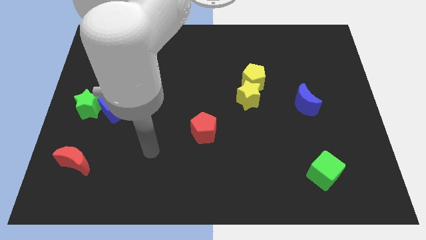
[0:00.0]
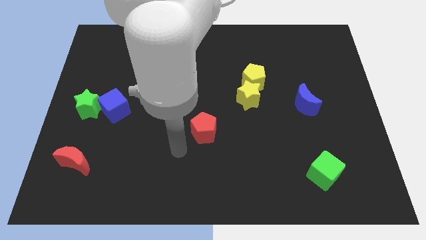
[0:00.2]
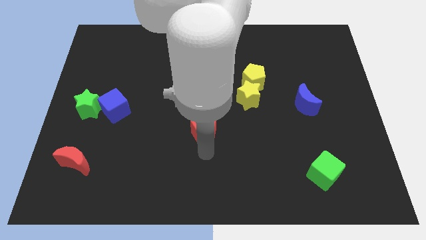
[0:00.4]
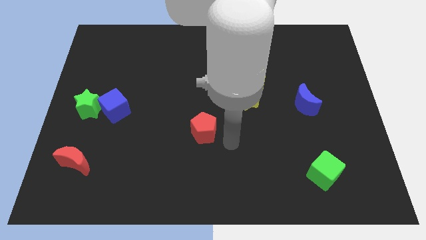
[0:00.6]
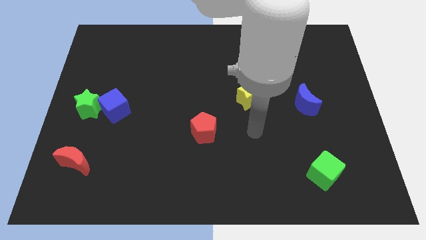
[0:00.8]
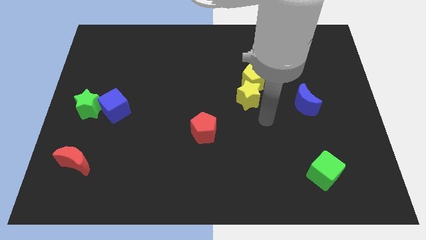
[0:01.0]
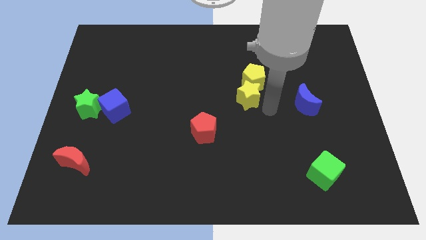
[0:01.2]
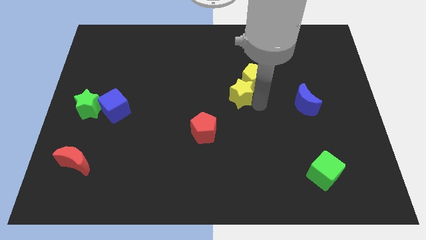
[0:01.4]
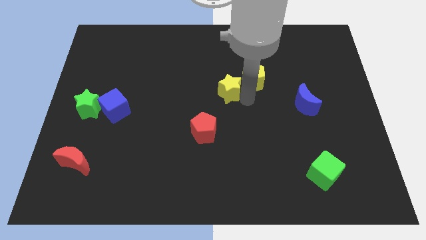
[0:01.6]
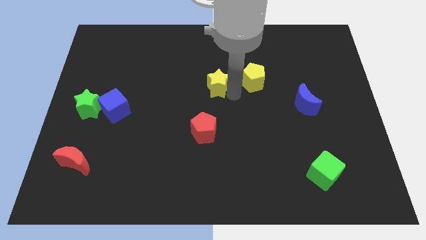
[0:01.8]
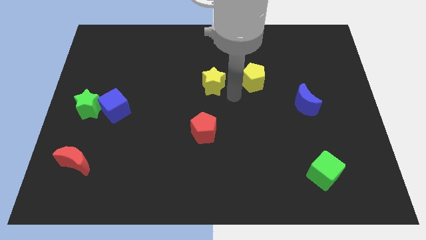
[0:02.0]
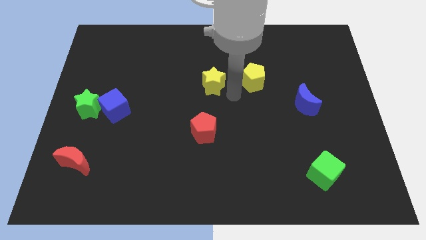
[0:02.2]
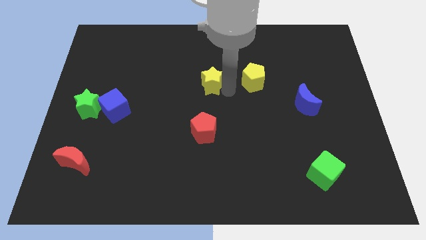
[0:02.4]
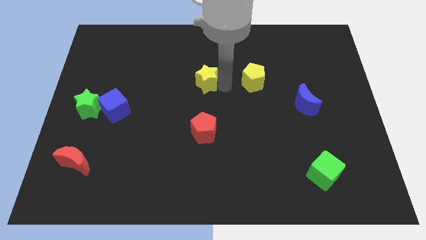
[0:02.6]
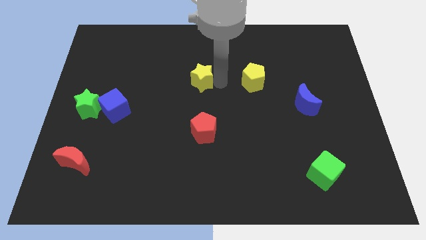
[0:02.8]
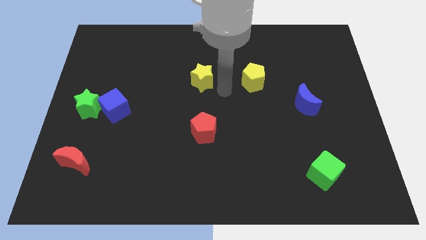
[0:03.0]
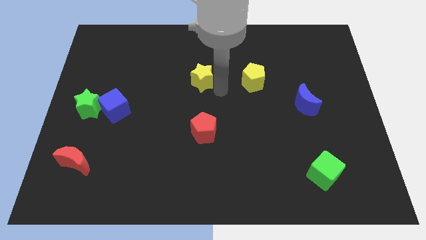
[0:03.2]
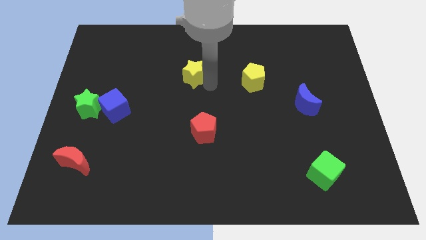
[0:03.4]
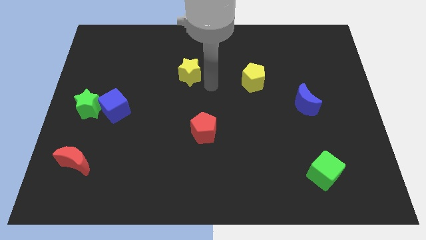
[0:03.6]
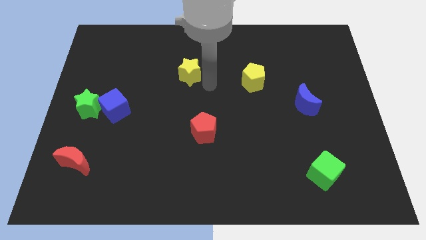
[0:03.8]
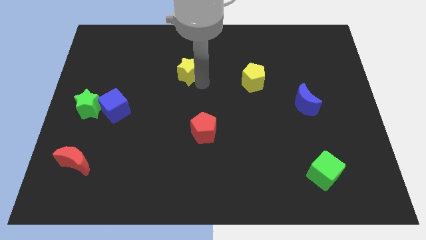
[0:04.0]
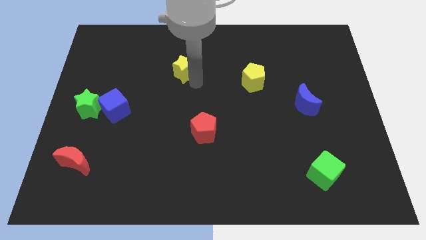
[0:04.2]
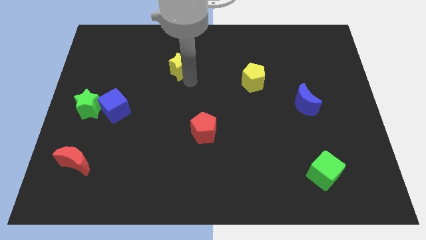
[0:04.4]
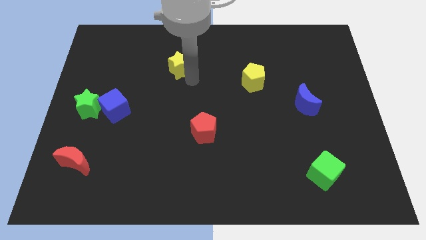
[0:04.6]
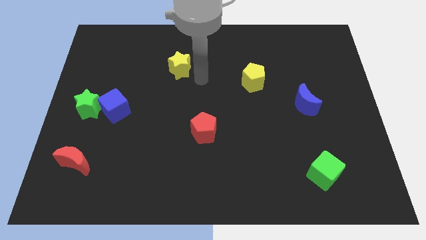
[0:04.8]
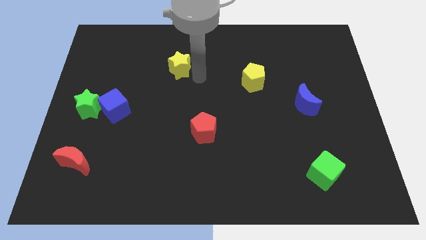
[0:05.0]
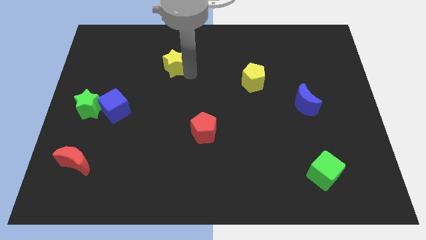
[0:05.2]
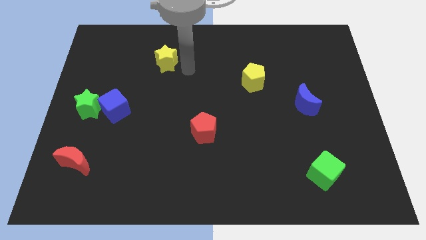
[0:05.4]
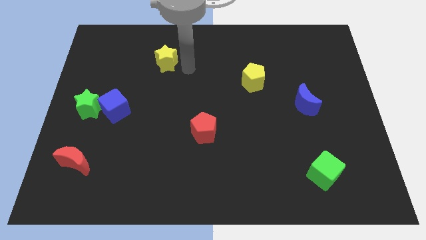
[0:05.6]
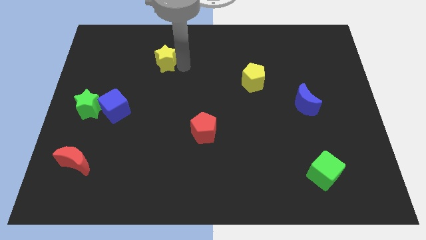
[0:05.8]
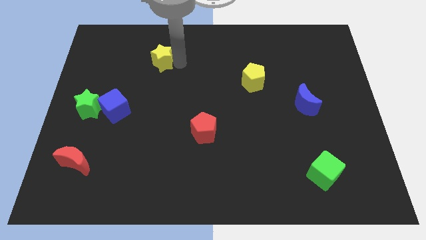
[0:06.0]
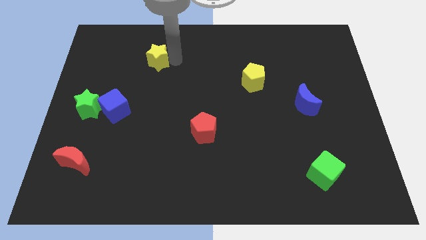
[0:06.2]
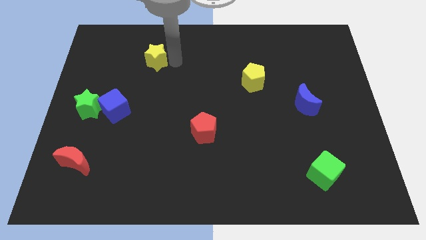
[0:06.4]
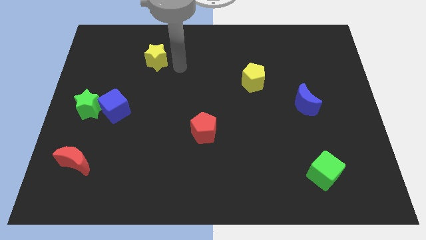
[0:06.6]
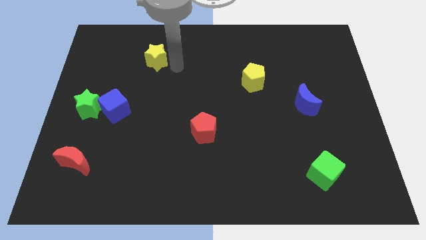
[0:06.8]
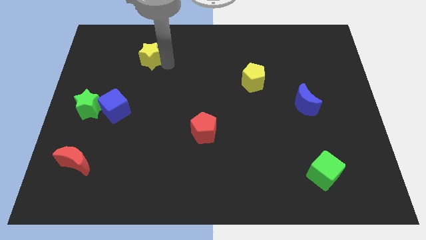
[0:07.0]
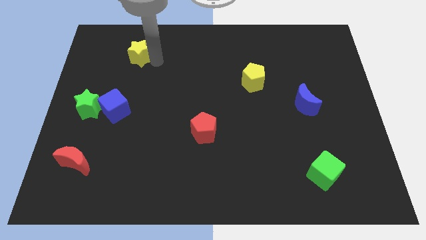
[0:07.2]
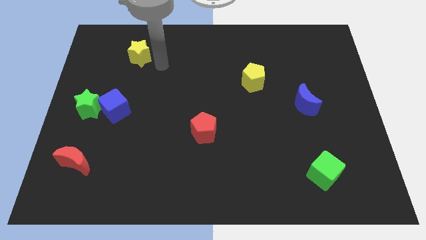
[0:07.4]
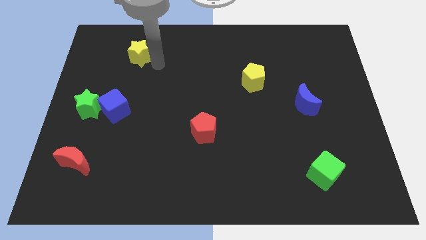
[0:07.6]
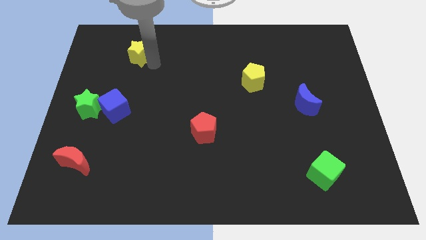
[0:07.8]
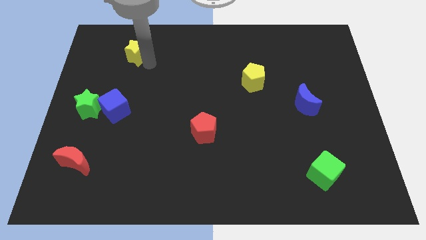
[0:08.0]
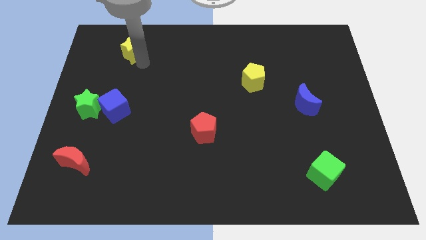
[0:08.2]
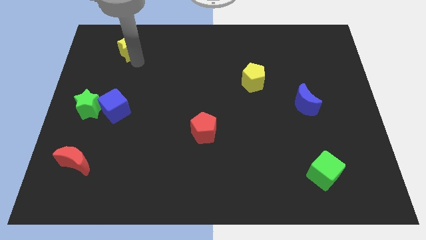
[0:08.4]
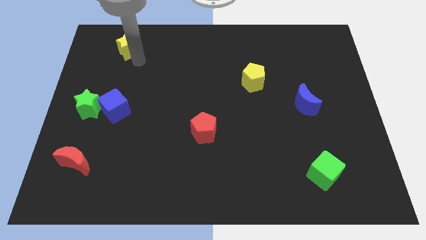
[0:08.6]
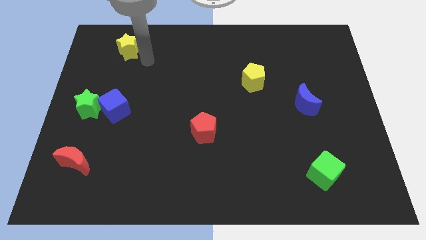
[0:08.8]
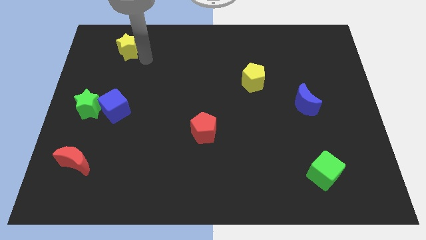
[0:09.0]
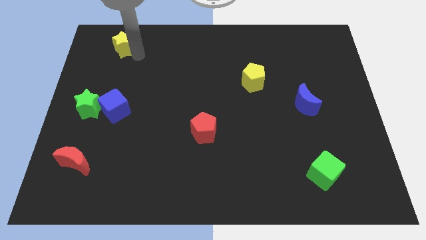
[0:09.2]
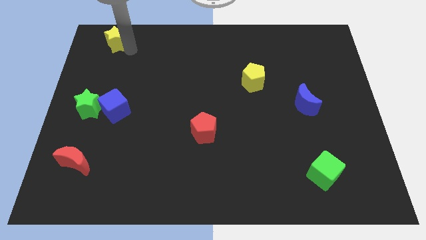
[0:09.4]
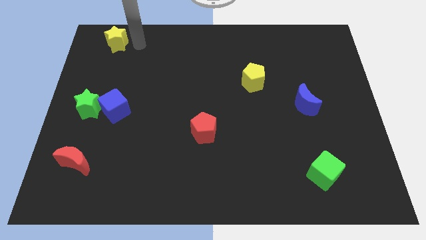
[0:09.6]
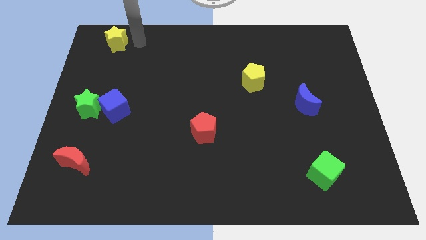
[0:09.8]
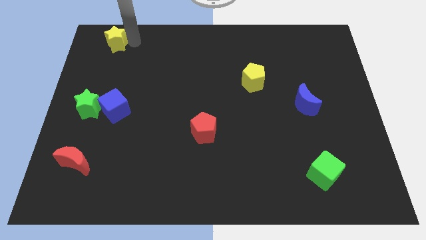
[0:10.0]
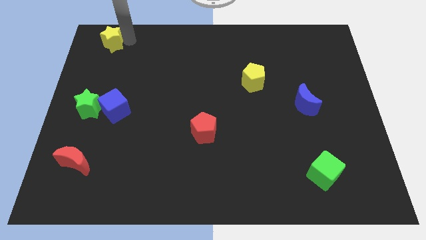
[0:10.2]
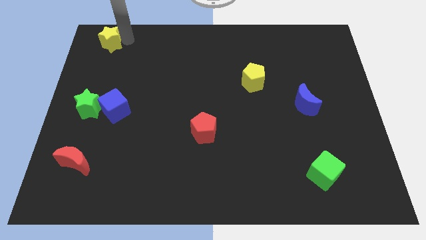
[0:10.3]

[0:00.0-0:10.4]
slide the yellow star to the upper left corner

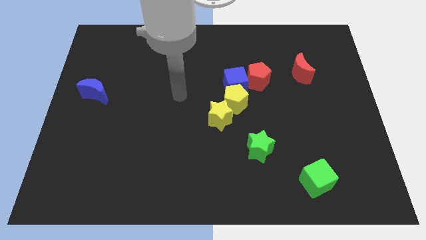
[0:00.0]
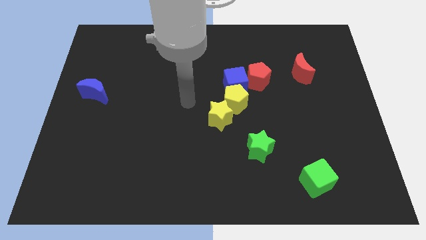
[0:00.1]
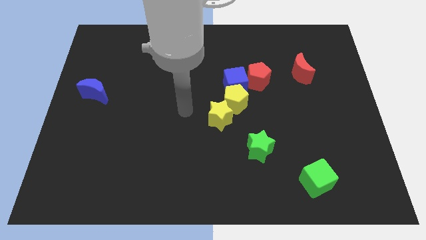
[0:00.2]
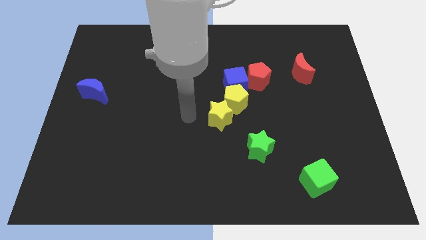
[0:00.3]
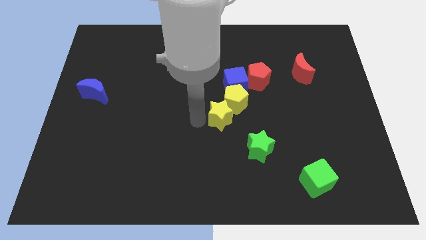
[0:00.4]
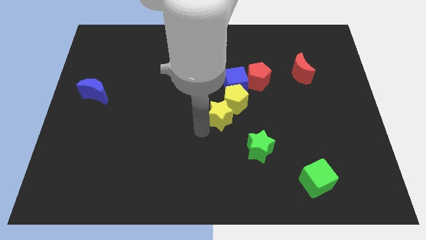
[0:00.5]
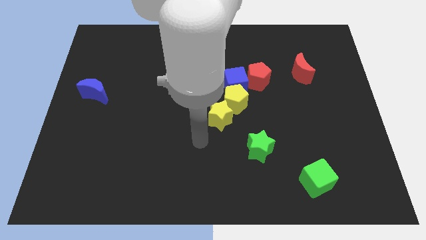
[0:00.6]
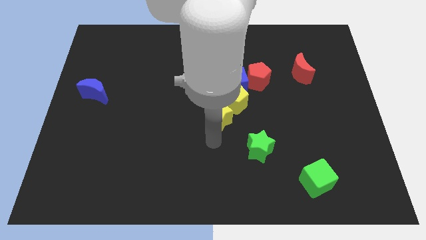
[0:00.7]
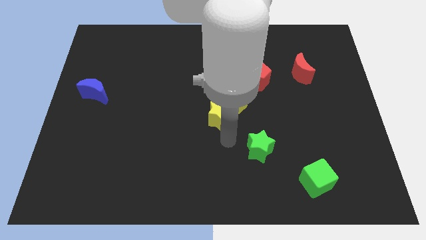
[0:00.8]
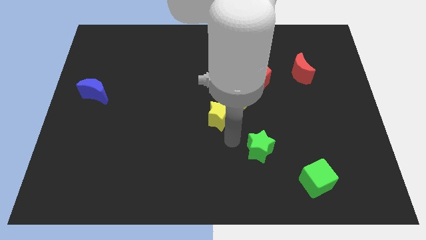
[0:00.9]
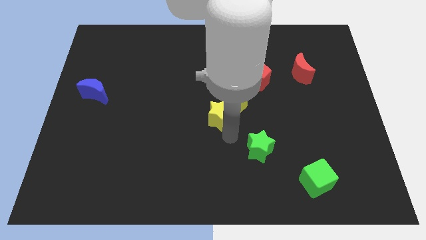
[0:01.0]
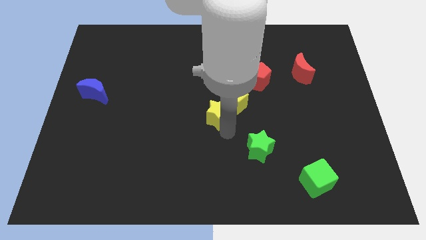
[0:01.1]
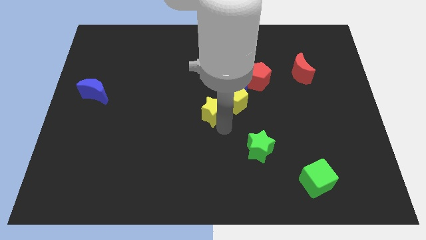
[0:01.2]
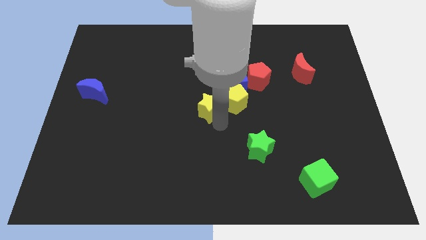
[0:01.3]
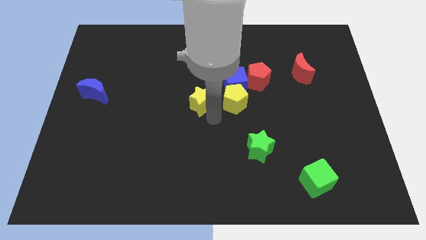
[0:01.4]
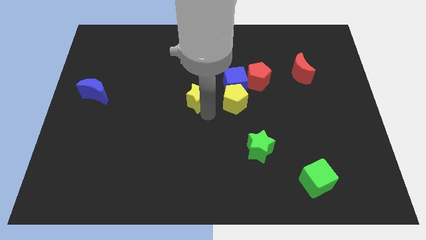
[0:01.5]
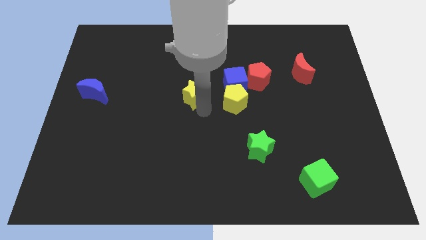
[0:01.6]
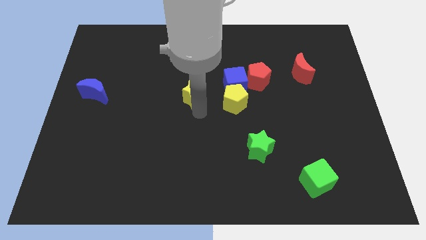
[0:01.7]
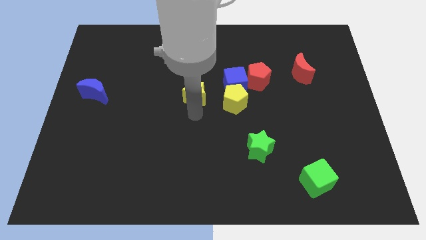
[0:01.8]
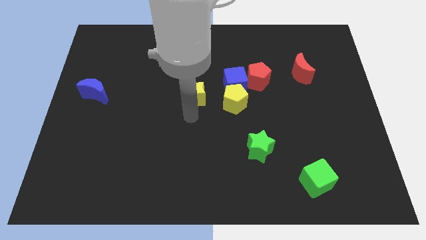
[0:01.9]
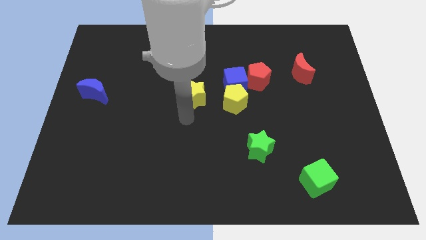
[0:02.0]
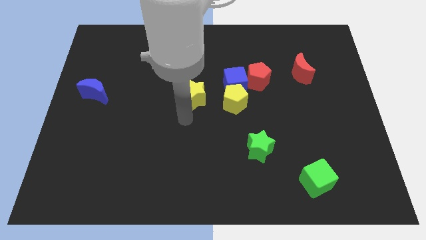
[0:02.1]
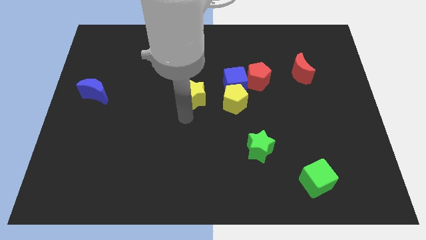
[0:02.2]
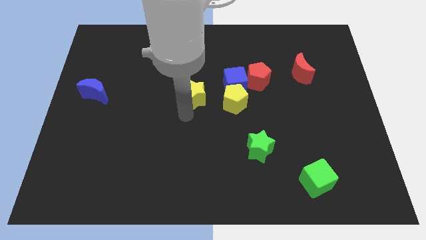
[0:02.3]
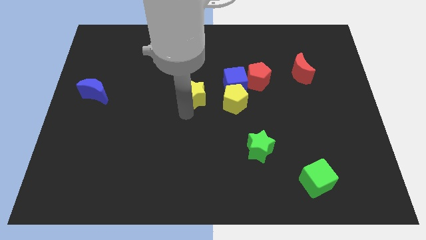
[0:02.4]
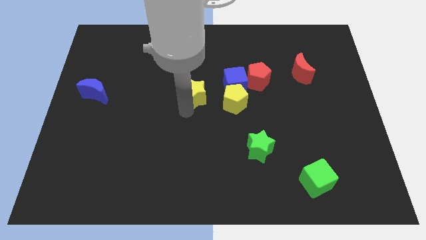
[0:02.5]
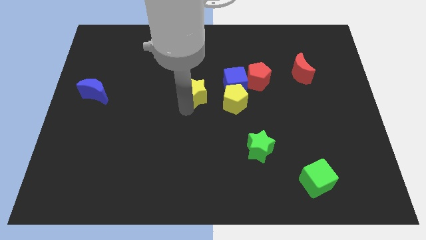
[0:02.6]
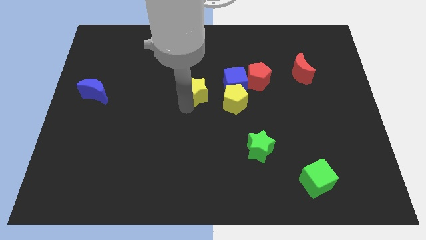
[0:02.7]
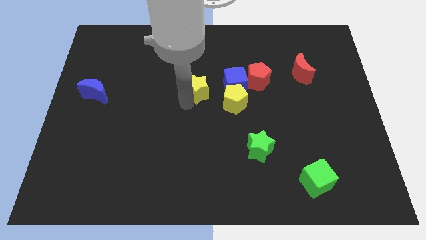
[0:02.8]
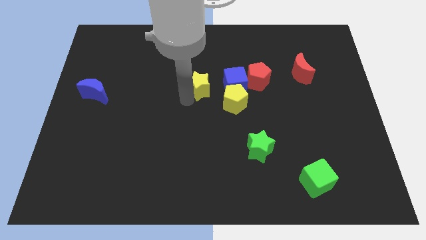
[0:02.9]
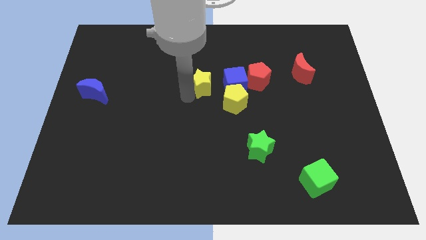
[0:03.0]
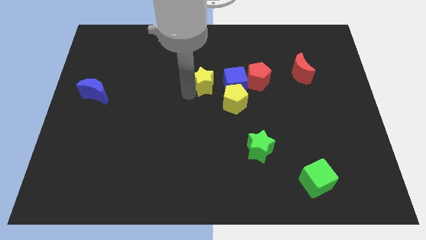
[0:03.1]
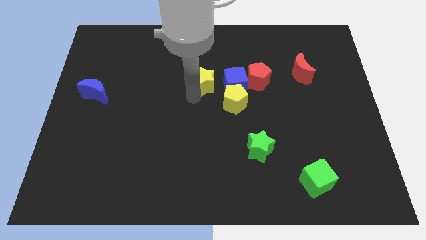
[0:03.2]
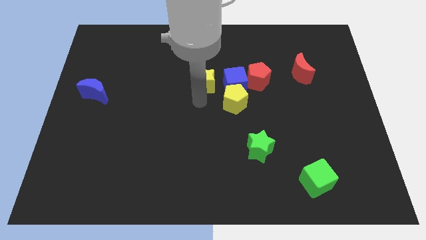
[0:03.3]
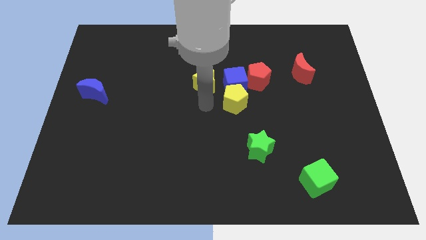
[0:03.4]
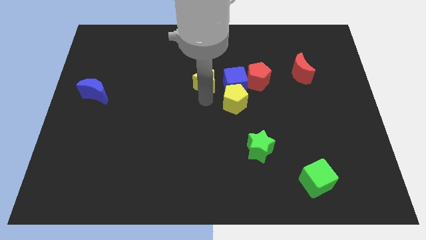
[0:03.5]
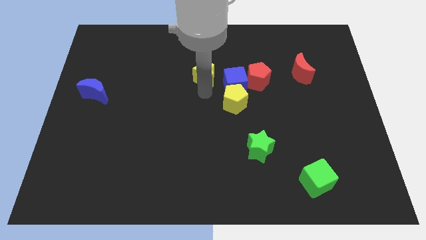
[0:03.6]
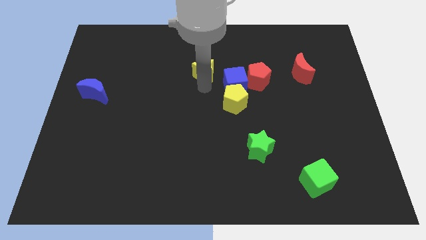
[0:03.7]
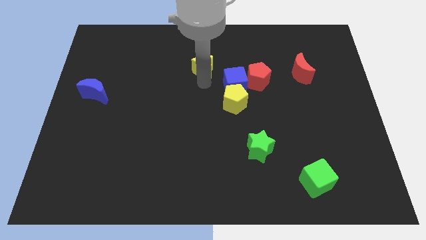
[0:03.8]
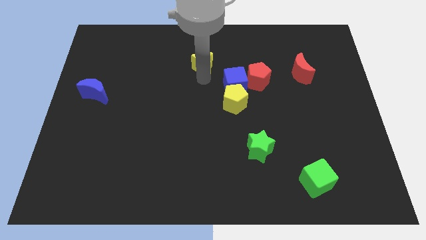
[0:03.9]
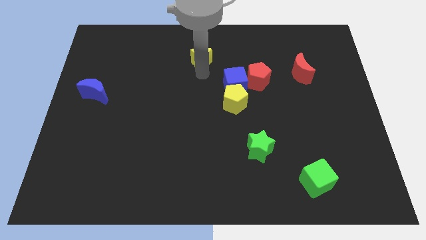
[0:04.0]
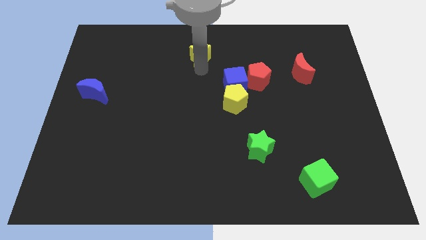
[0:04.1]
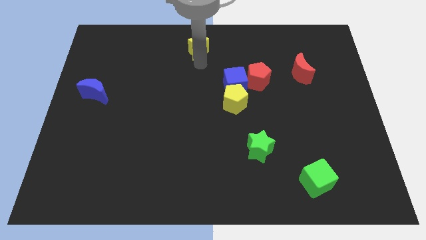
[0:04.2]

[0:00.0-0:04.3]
put the yellow star to the top
